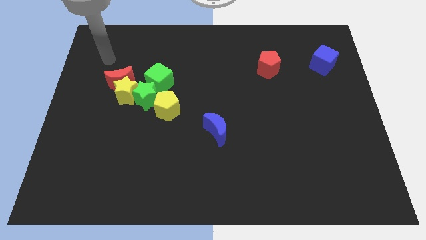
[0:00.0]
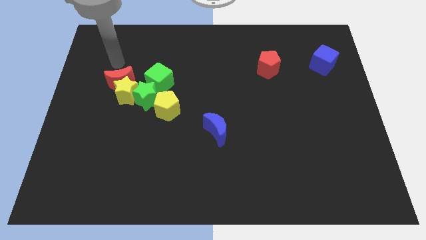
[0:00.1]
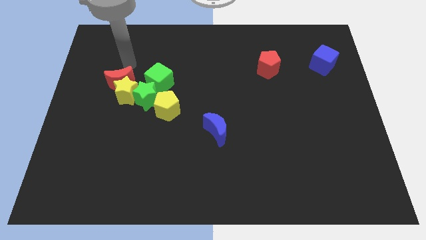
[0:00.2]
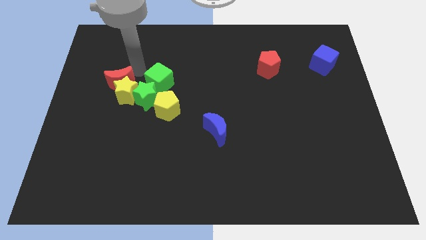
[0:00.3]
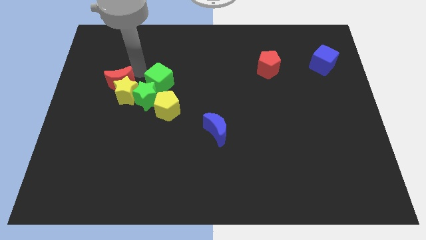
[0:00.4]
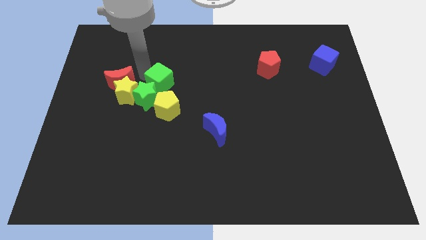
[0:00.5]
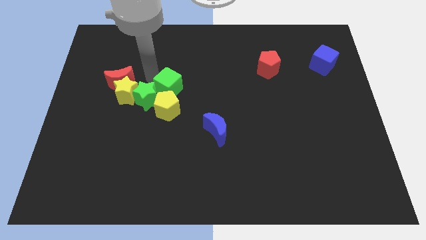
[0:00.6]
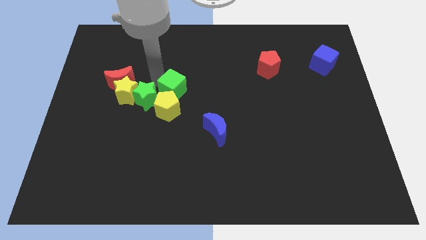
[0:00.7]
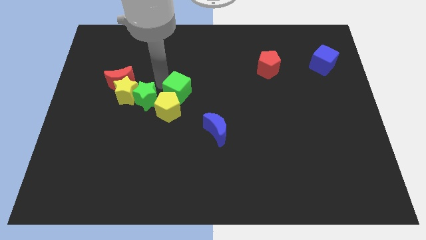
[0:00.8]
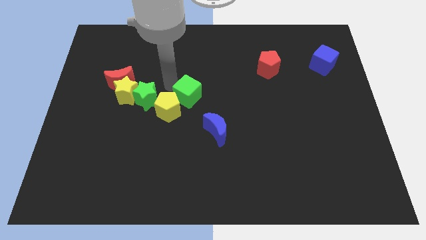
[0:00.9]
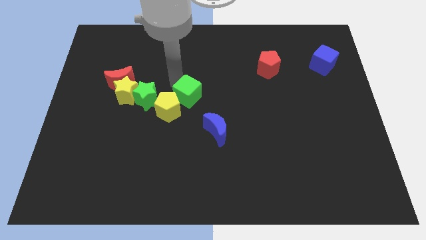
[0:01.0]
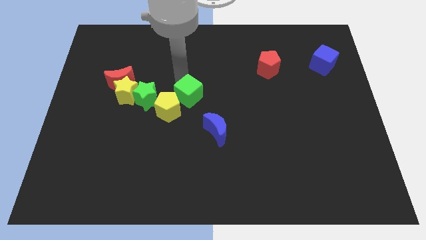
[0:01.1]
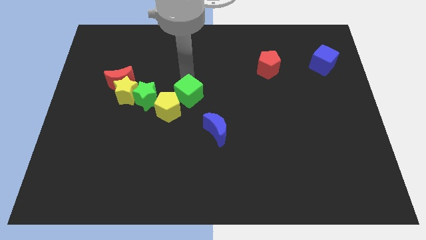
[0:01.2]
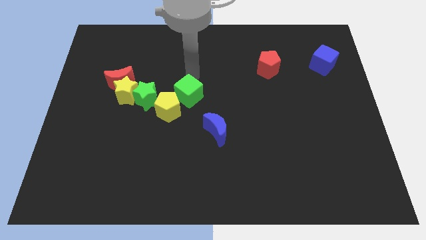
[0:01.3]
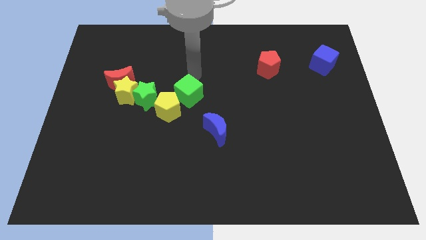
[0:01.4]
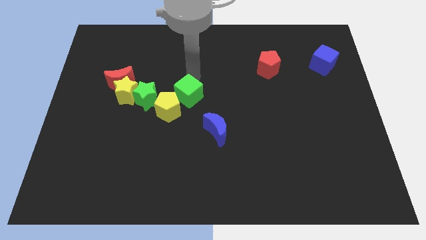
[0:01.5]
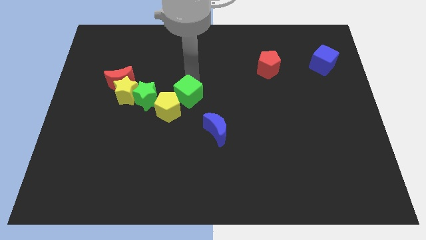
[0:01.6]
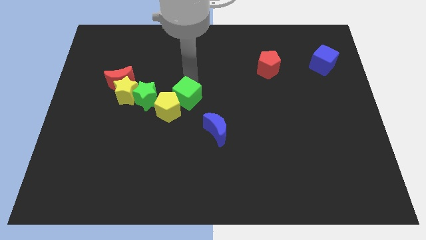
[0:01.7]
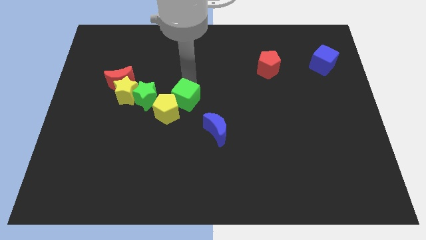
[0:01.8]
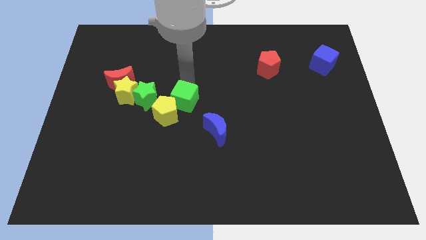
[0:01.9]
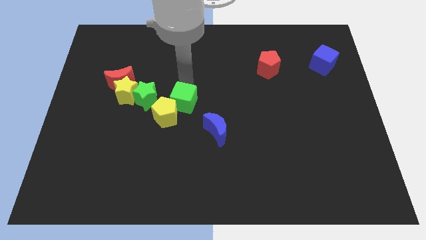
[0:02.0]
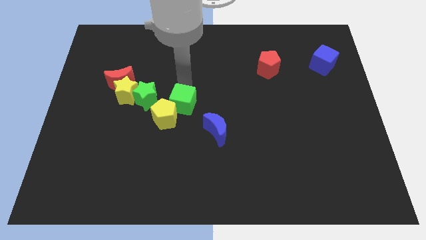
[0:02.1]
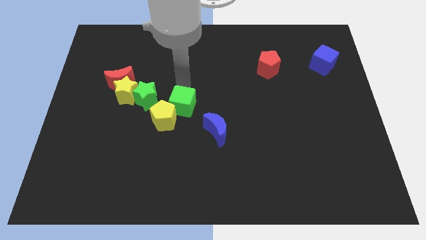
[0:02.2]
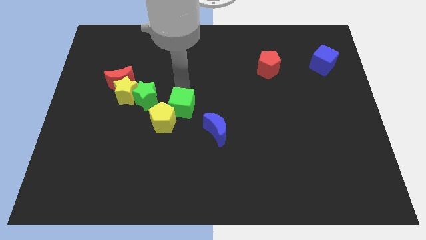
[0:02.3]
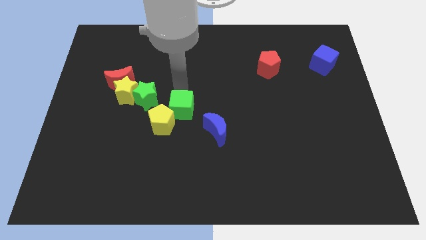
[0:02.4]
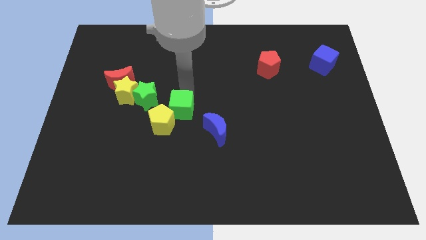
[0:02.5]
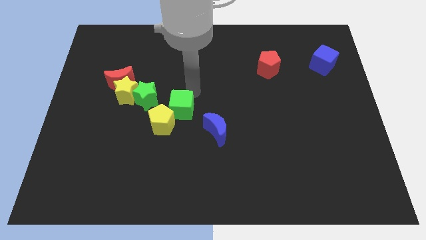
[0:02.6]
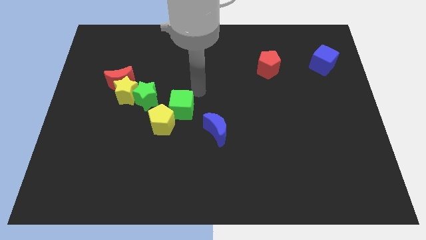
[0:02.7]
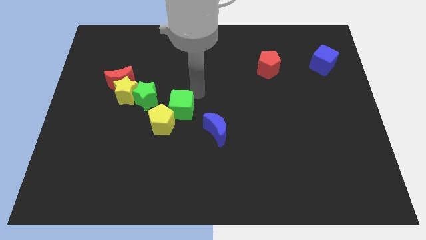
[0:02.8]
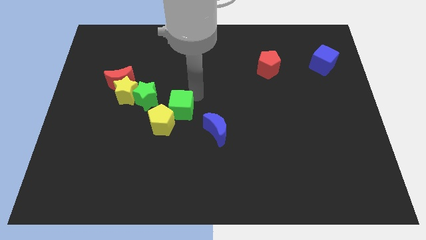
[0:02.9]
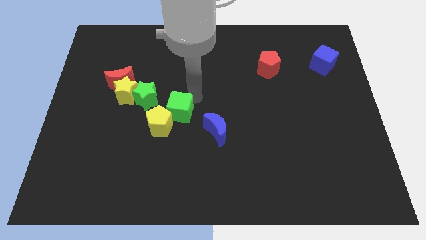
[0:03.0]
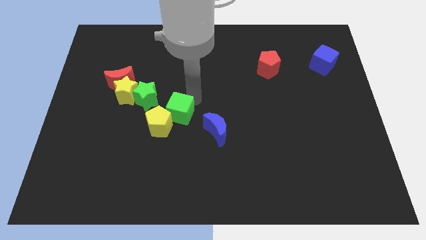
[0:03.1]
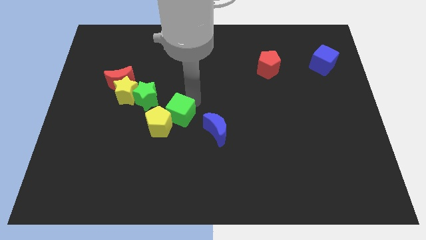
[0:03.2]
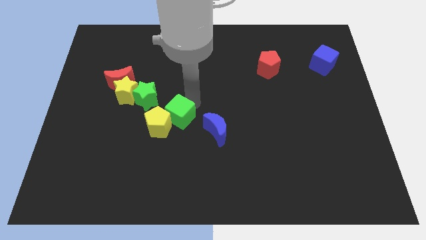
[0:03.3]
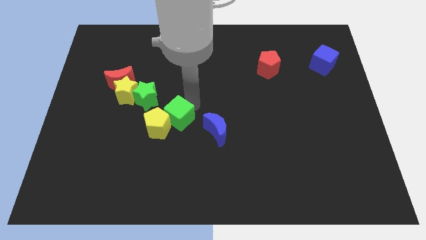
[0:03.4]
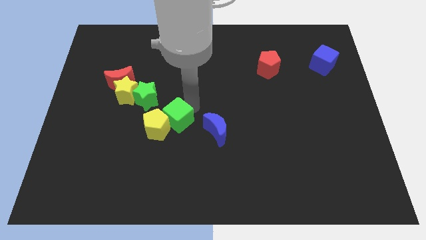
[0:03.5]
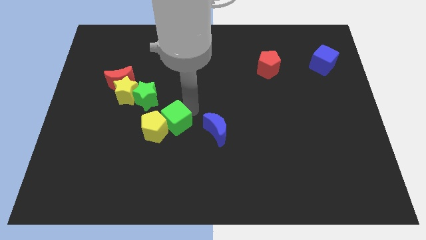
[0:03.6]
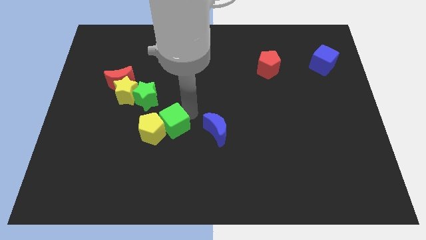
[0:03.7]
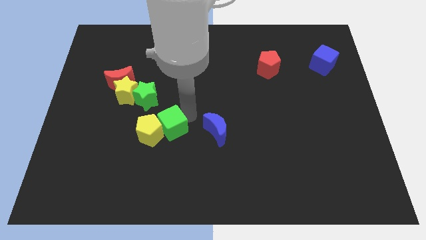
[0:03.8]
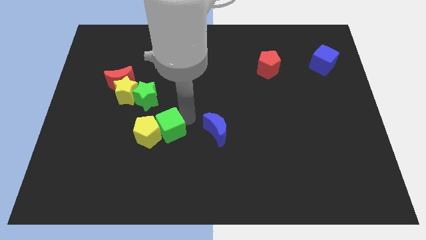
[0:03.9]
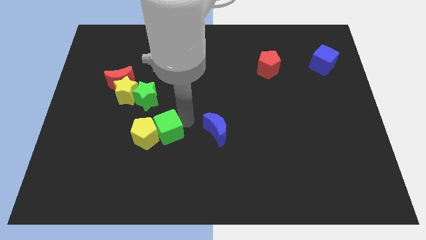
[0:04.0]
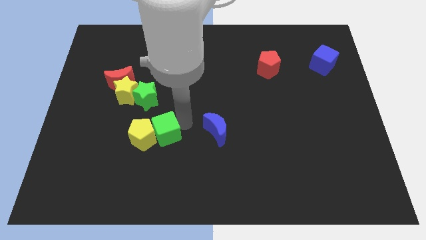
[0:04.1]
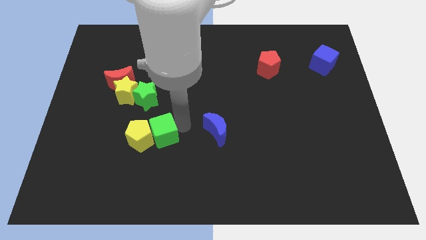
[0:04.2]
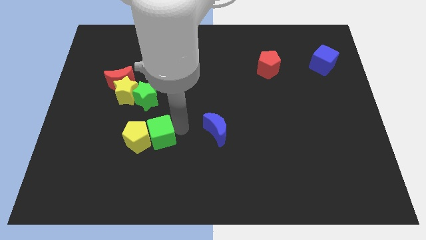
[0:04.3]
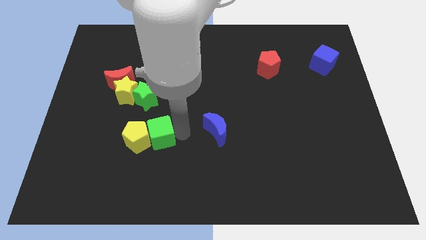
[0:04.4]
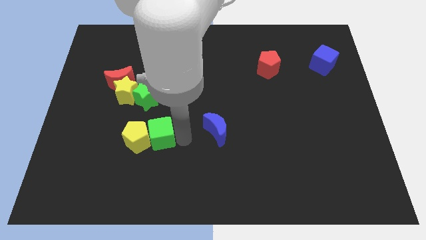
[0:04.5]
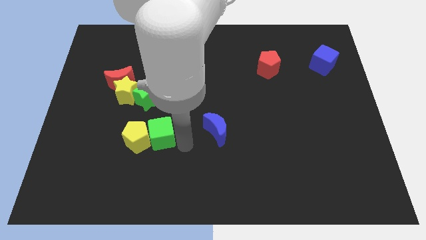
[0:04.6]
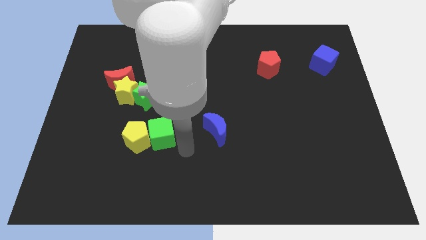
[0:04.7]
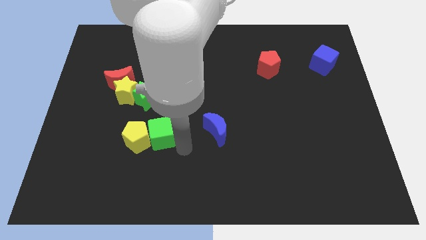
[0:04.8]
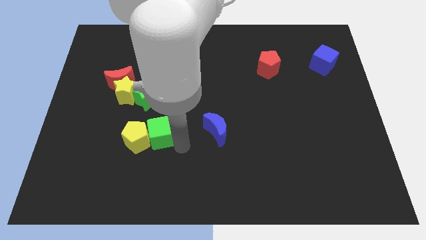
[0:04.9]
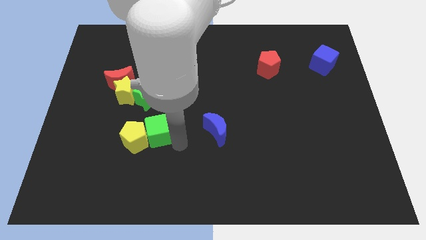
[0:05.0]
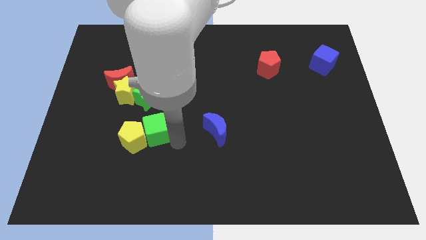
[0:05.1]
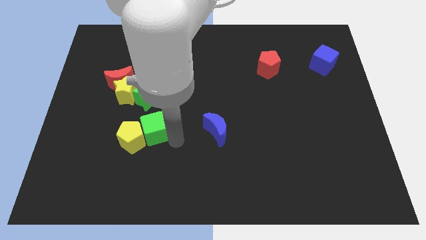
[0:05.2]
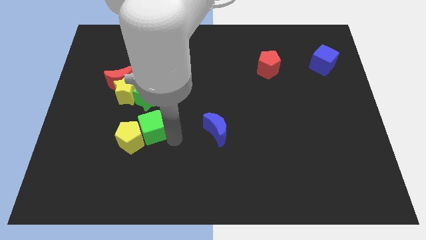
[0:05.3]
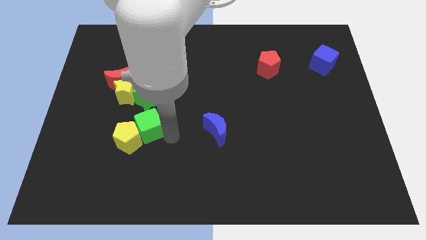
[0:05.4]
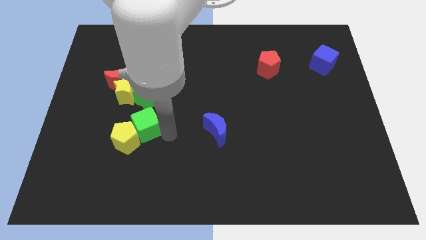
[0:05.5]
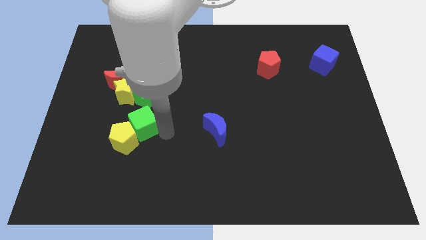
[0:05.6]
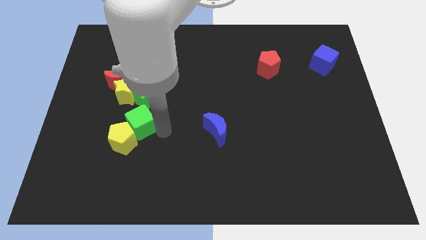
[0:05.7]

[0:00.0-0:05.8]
put the green cube to the bottom left side of the green star
